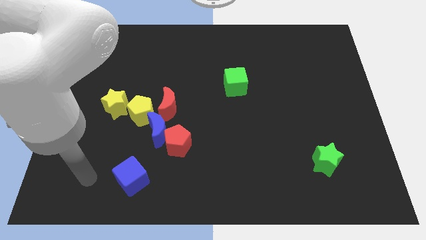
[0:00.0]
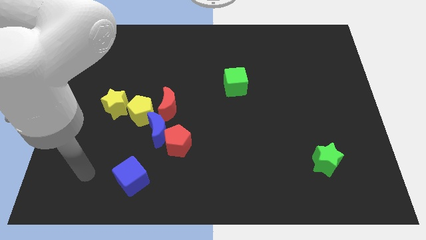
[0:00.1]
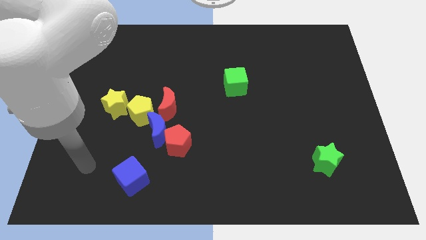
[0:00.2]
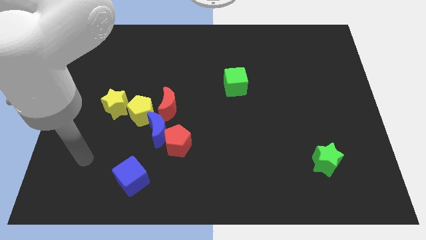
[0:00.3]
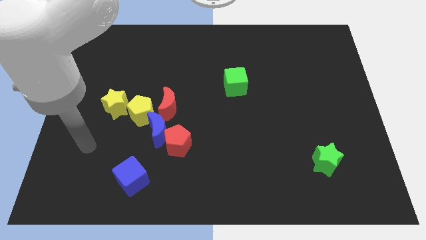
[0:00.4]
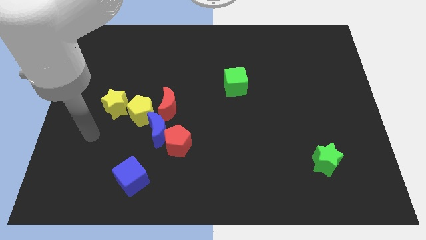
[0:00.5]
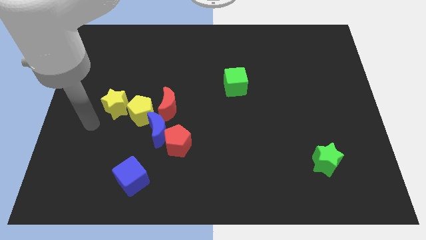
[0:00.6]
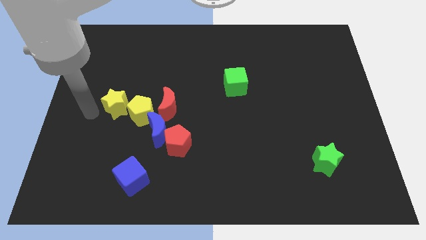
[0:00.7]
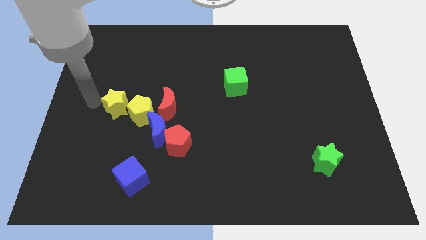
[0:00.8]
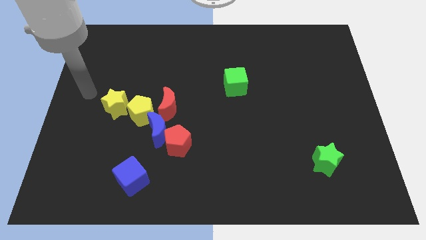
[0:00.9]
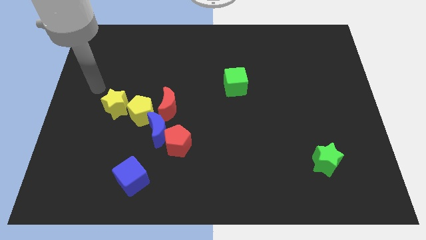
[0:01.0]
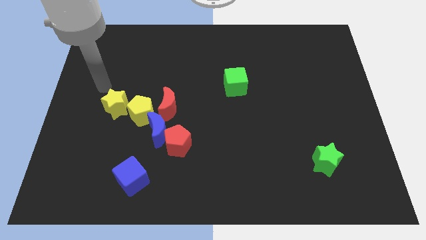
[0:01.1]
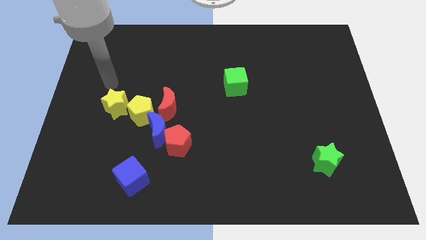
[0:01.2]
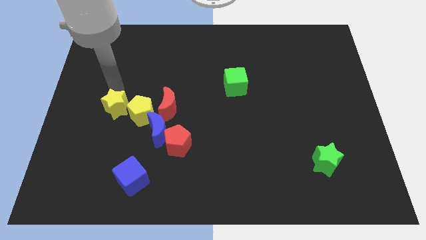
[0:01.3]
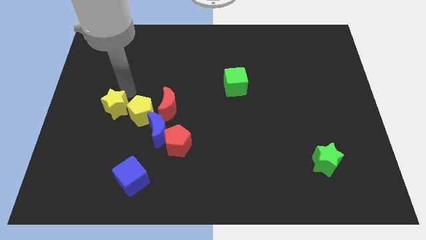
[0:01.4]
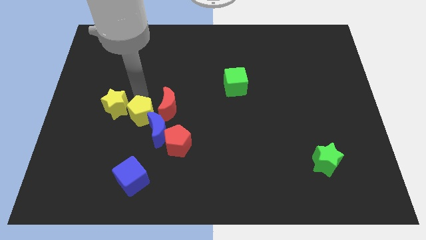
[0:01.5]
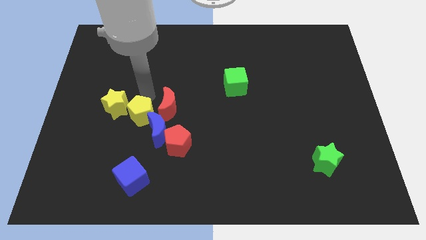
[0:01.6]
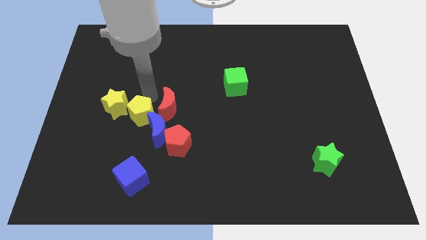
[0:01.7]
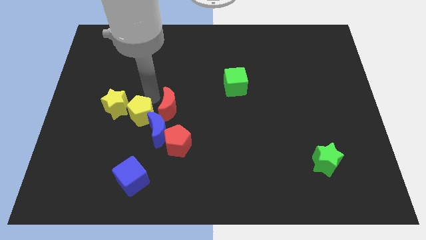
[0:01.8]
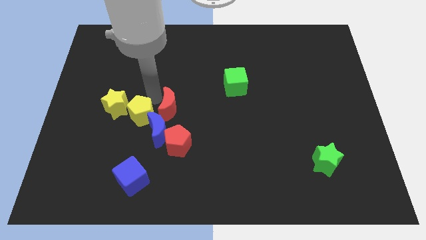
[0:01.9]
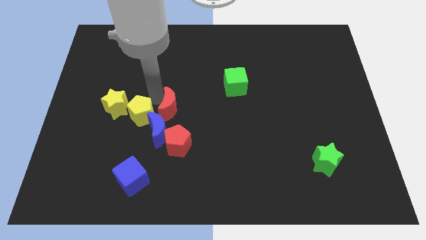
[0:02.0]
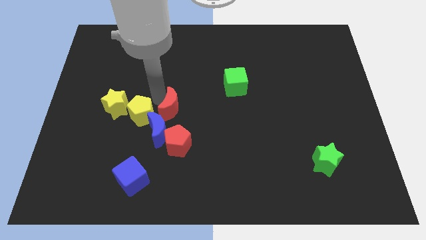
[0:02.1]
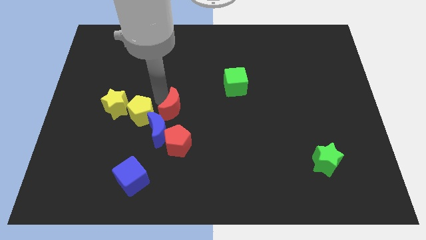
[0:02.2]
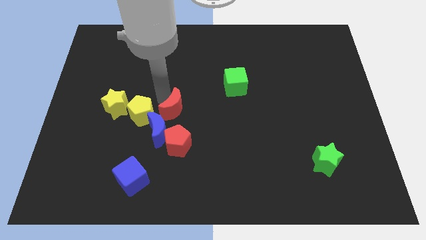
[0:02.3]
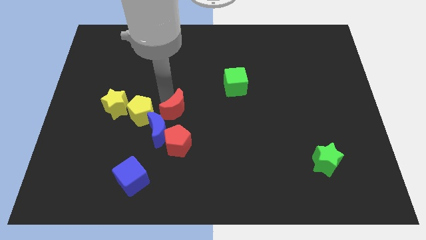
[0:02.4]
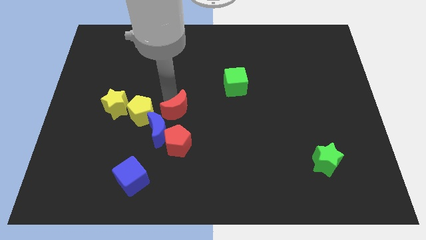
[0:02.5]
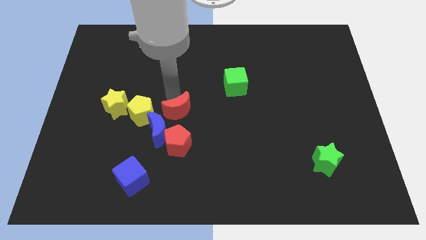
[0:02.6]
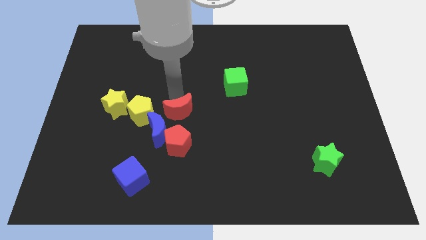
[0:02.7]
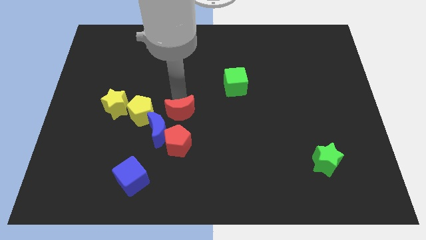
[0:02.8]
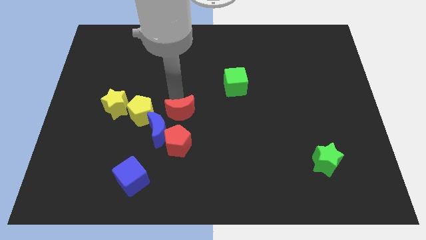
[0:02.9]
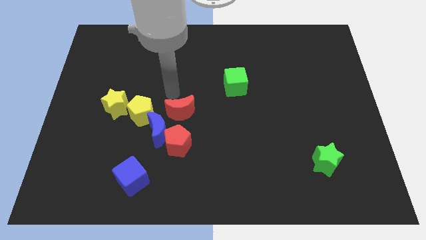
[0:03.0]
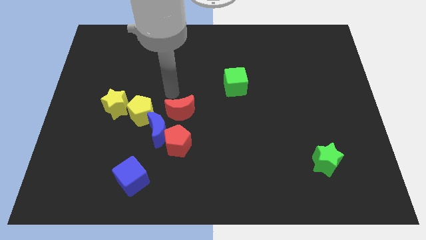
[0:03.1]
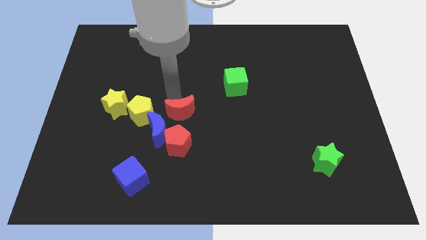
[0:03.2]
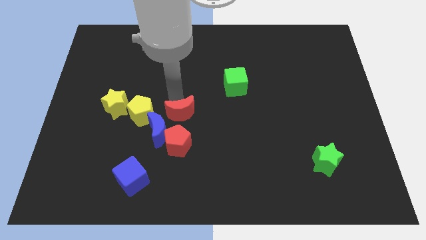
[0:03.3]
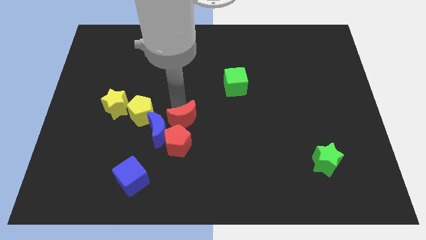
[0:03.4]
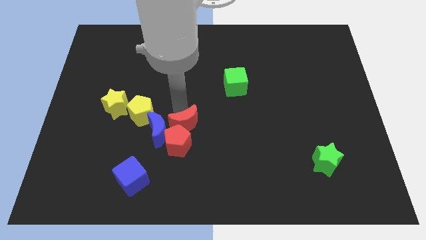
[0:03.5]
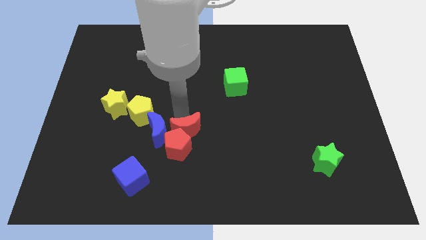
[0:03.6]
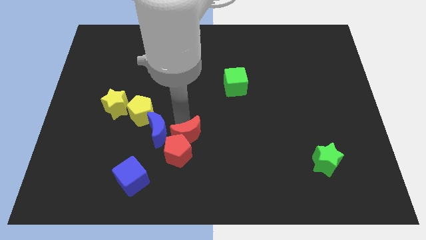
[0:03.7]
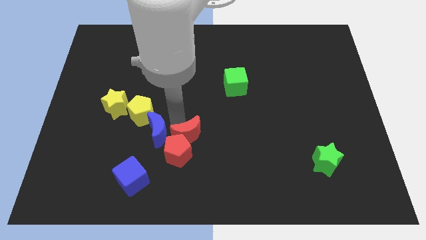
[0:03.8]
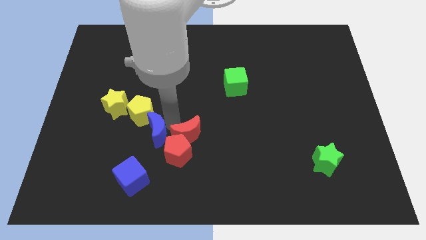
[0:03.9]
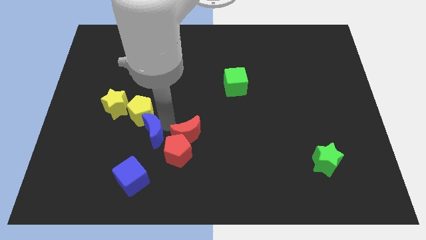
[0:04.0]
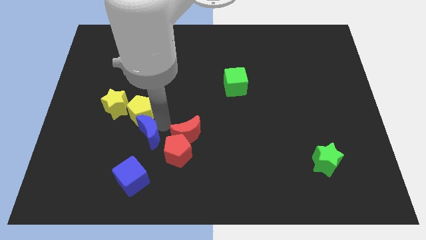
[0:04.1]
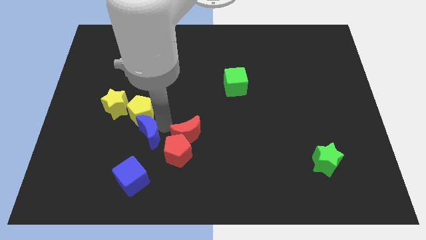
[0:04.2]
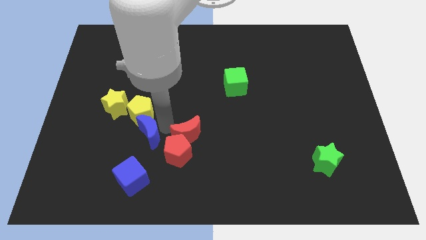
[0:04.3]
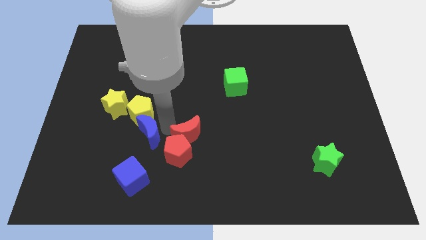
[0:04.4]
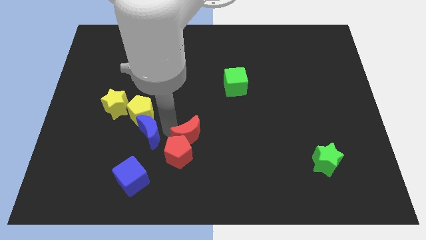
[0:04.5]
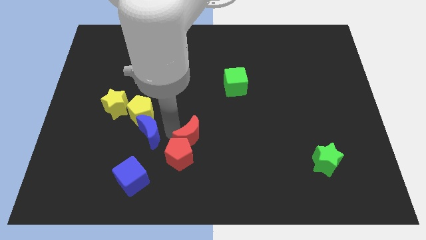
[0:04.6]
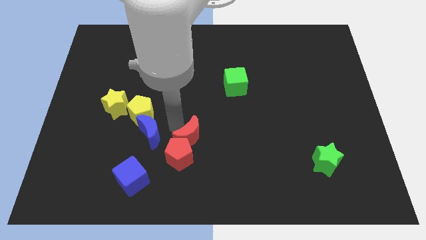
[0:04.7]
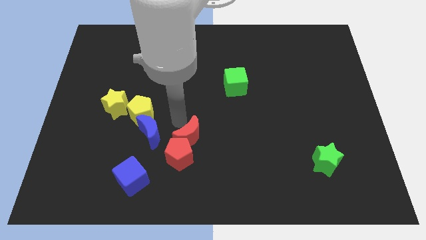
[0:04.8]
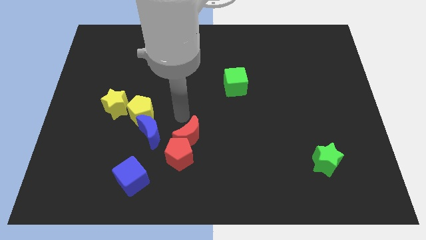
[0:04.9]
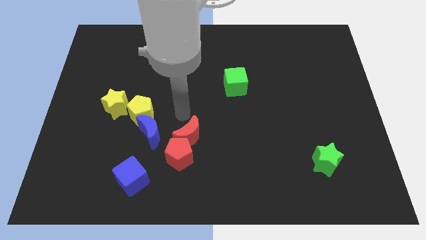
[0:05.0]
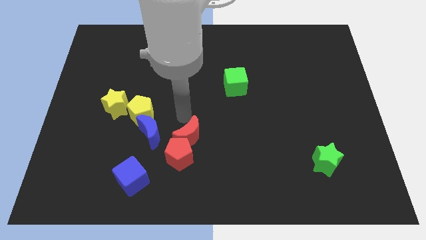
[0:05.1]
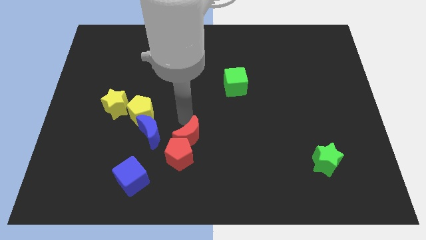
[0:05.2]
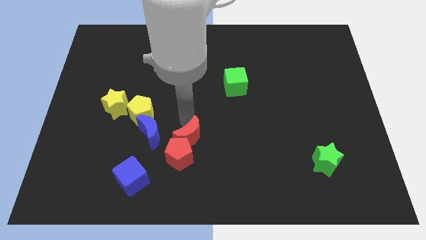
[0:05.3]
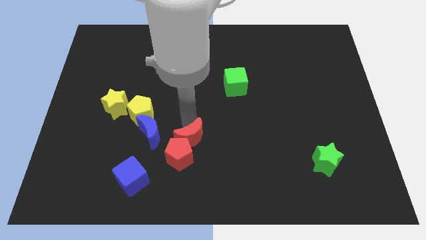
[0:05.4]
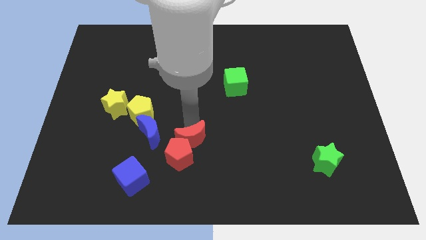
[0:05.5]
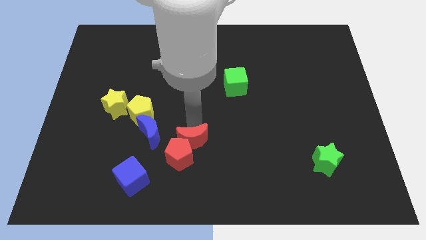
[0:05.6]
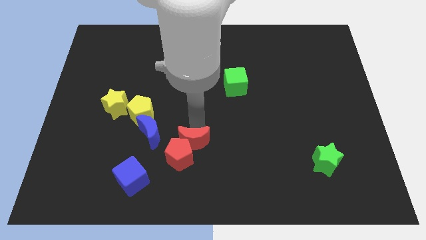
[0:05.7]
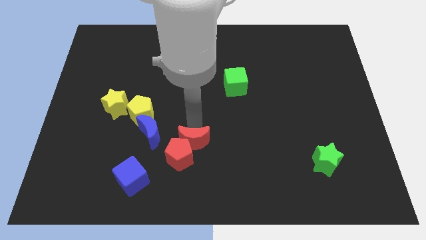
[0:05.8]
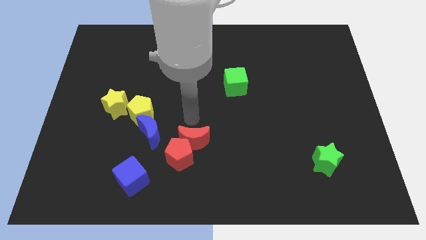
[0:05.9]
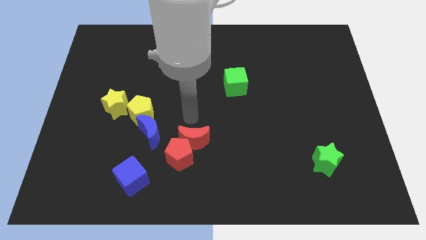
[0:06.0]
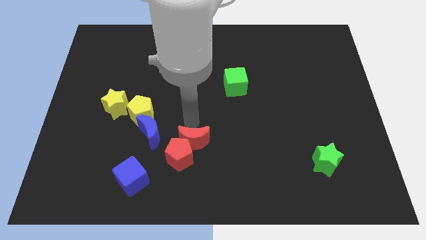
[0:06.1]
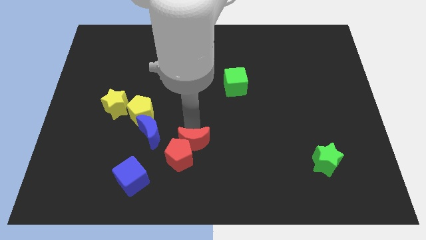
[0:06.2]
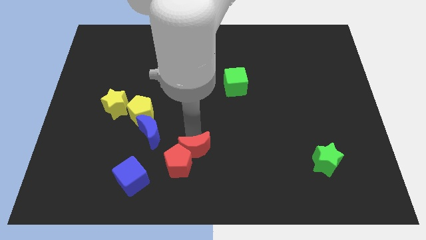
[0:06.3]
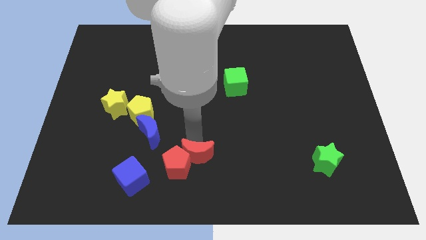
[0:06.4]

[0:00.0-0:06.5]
slide the red moon to the bottom
